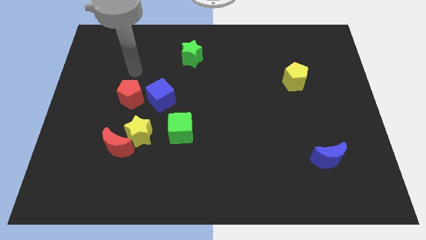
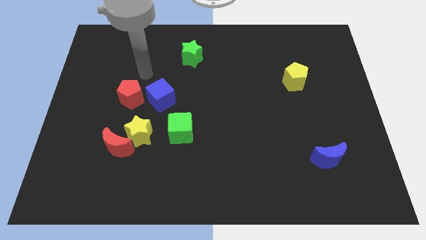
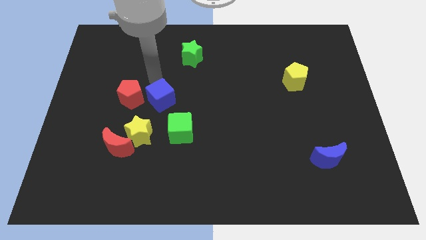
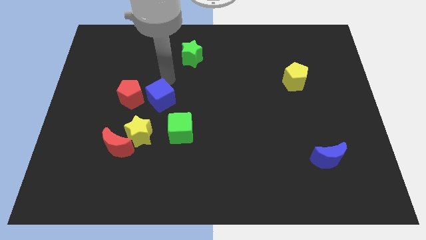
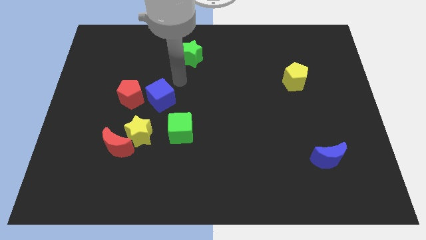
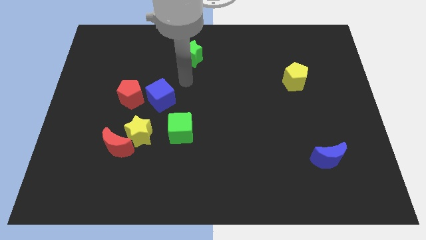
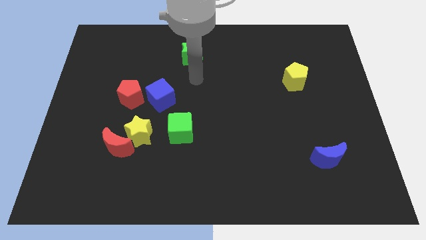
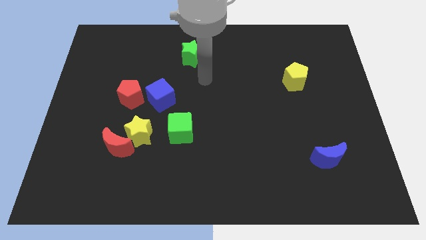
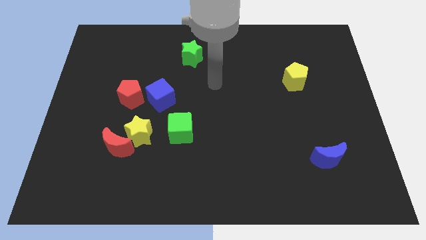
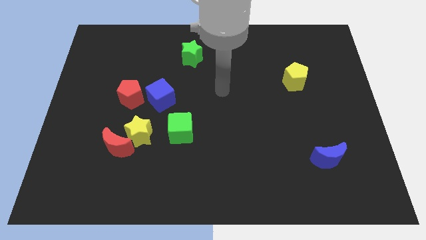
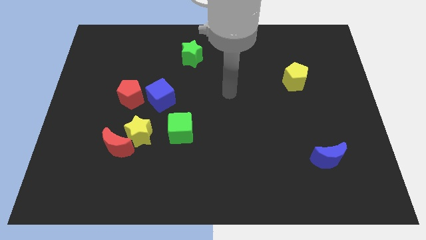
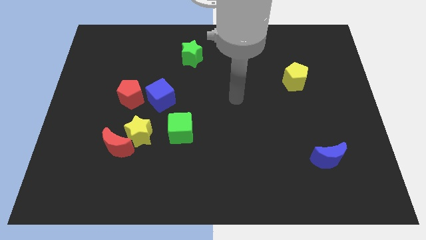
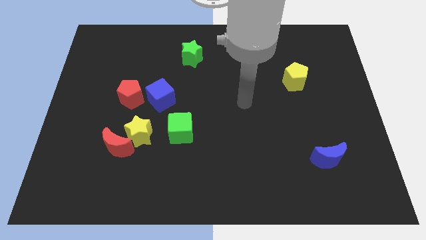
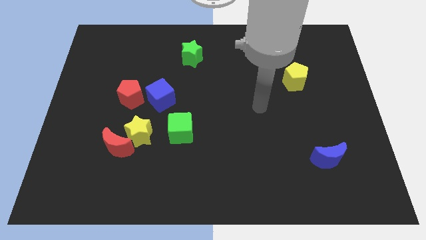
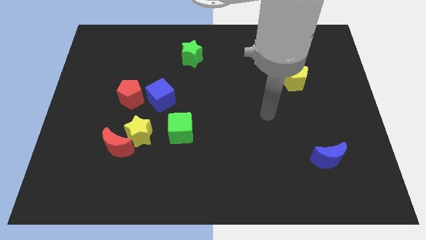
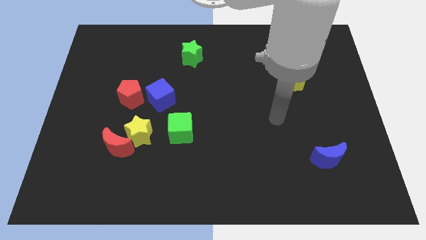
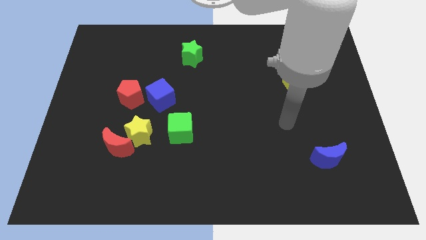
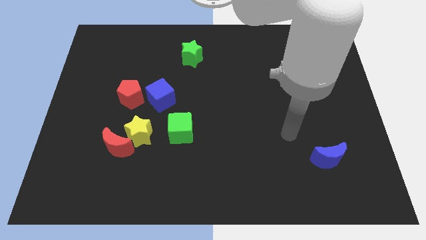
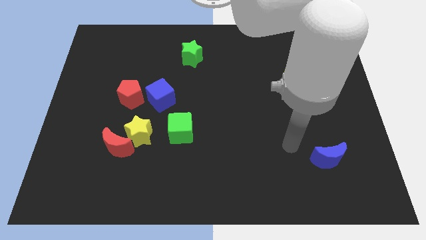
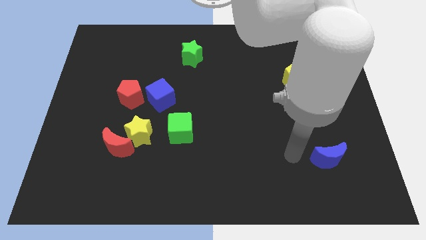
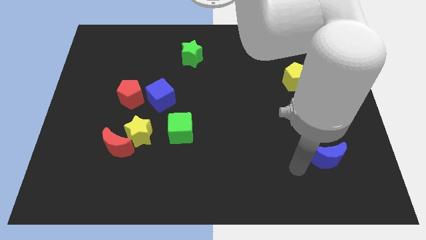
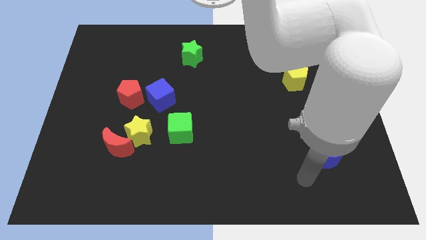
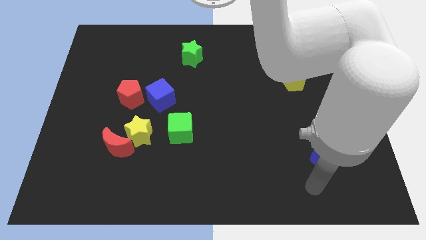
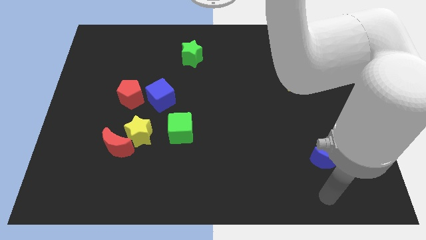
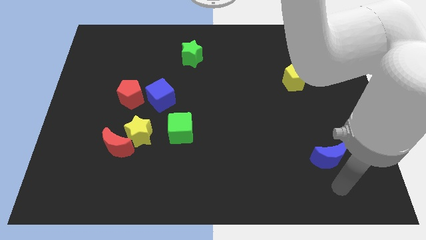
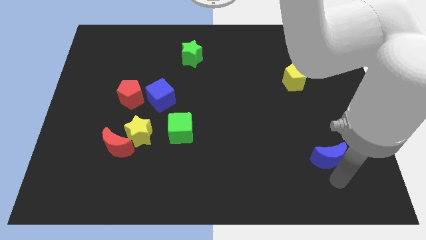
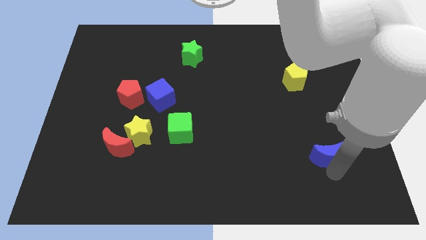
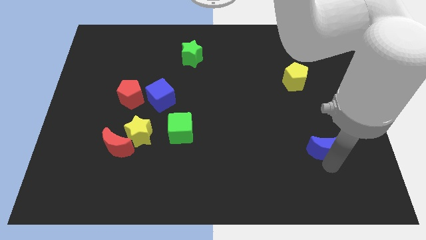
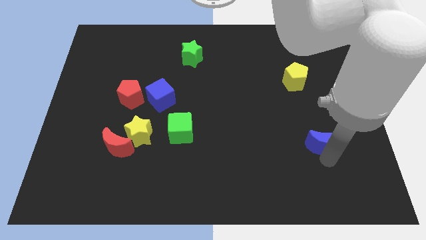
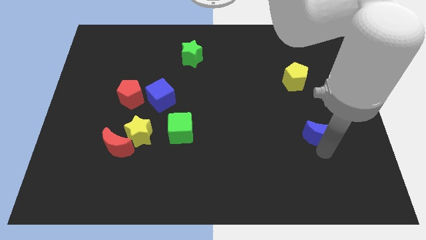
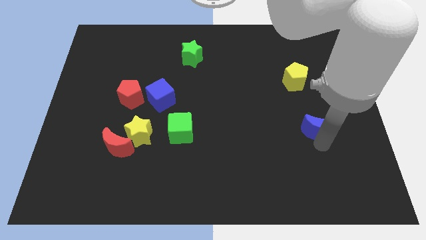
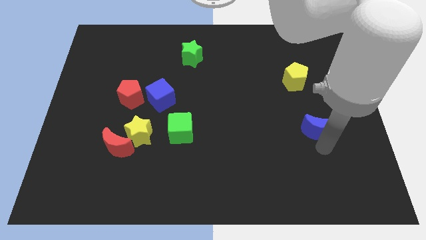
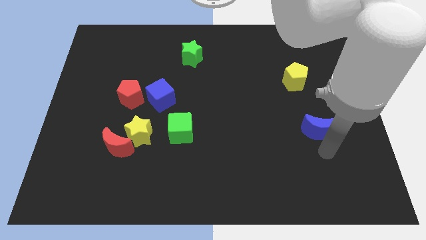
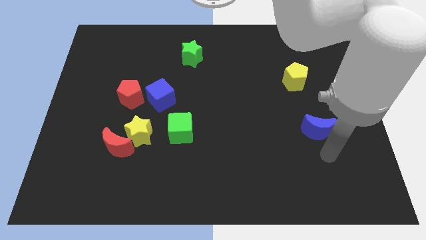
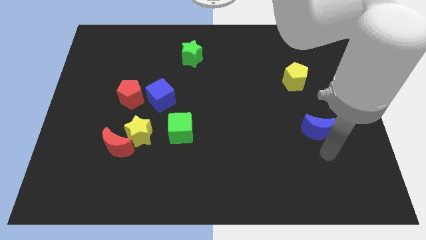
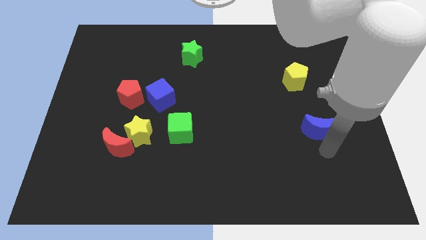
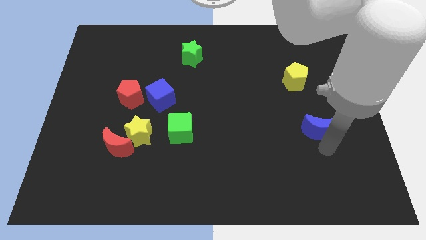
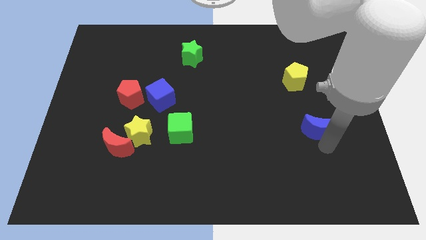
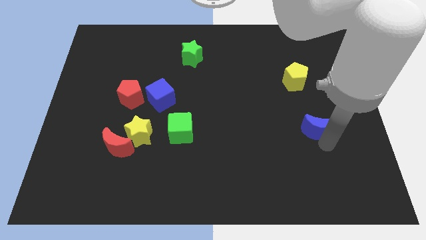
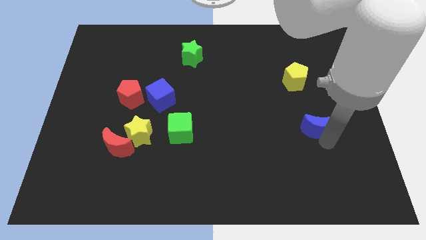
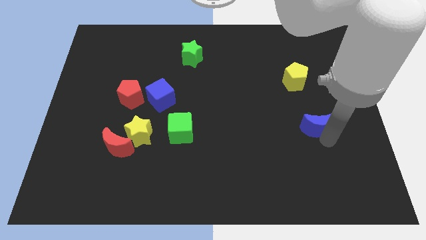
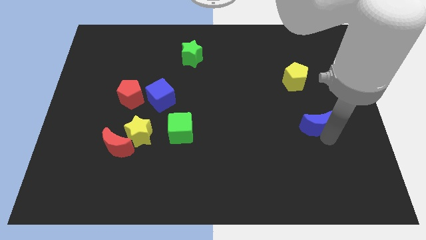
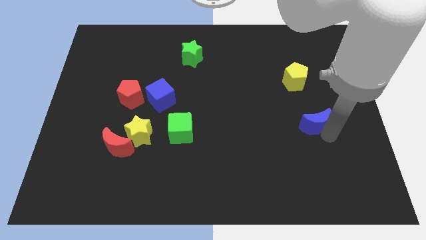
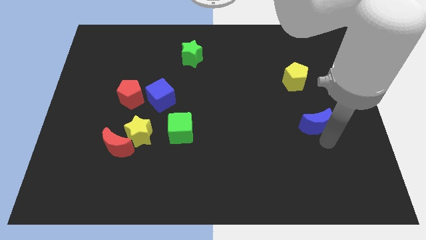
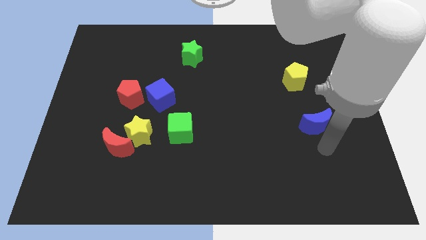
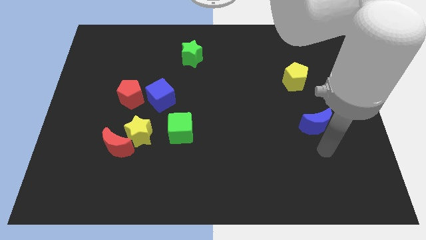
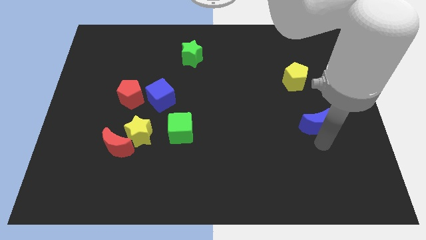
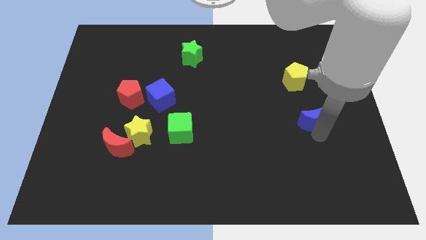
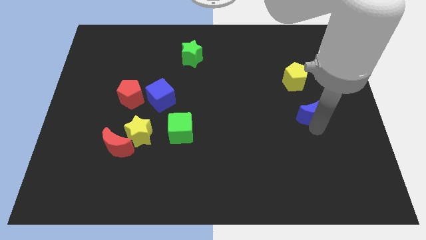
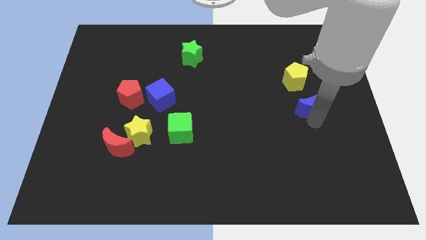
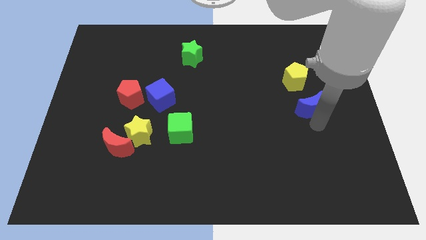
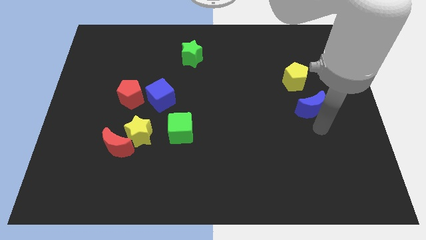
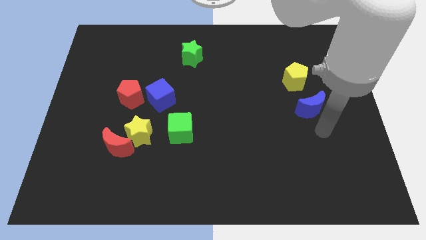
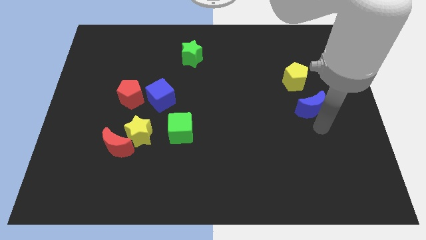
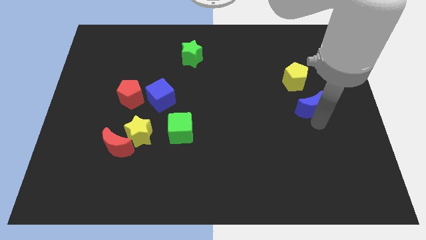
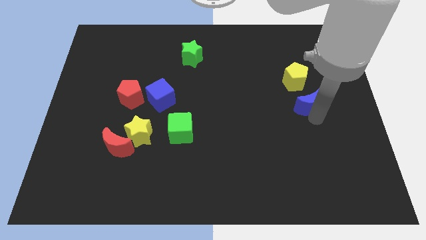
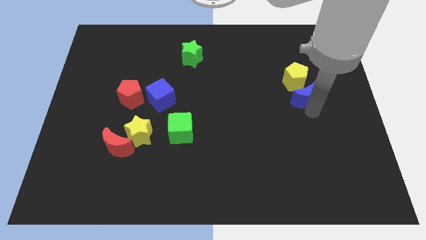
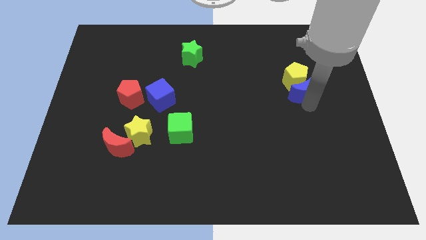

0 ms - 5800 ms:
push the blue moon close to the yellow pentagon

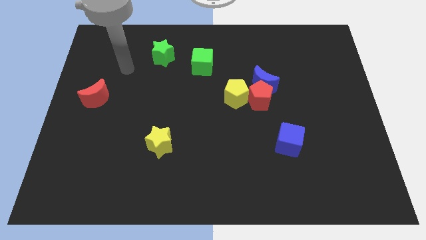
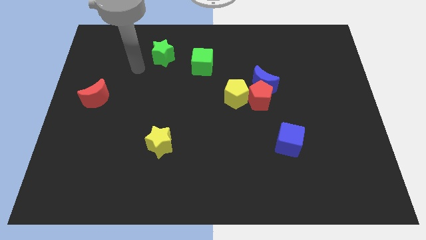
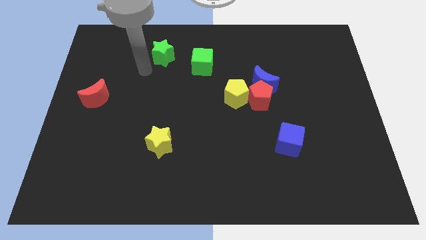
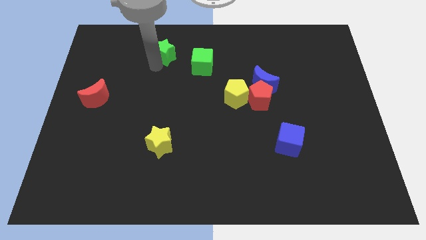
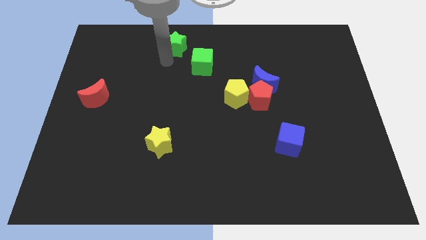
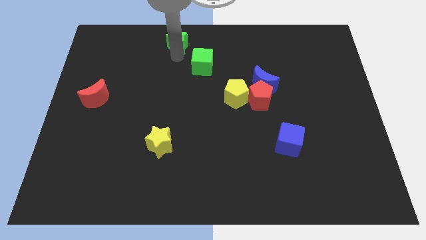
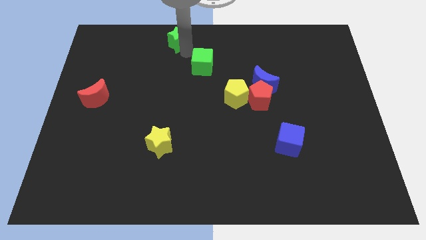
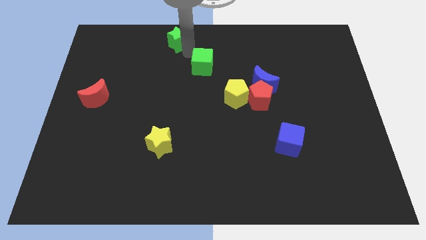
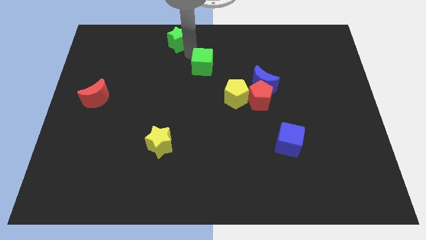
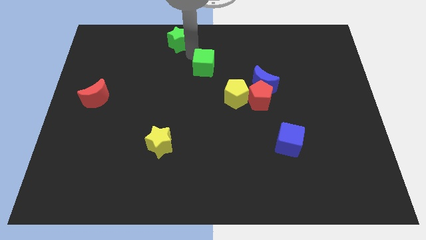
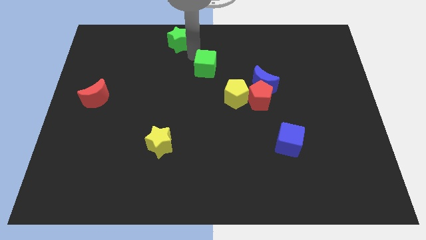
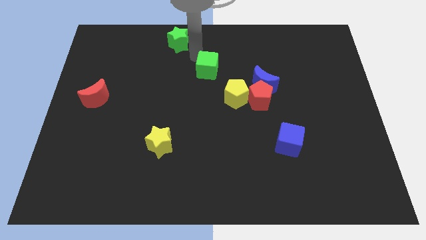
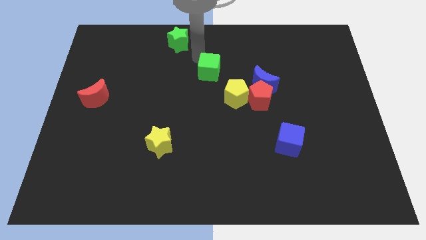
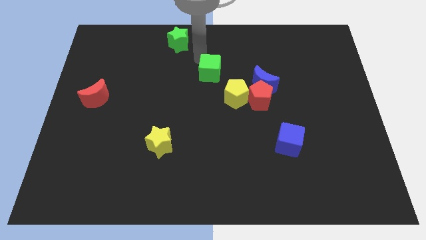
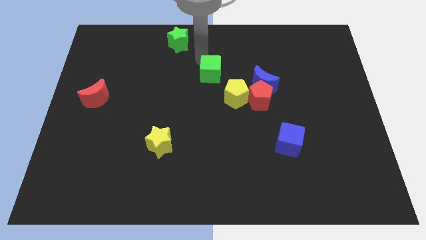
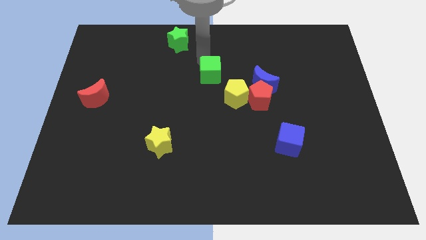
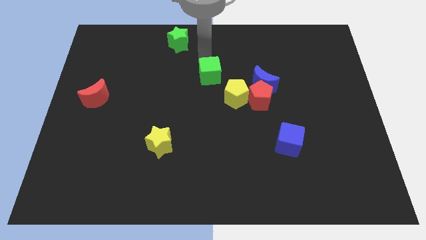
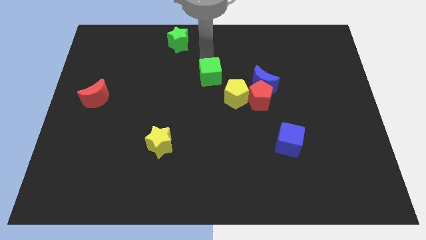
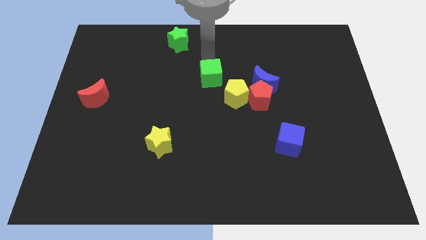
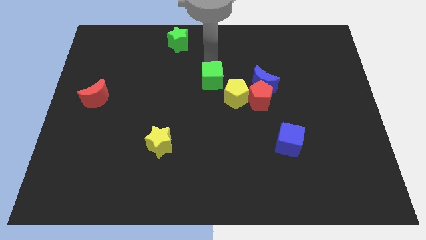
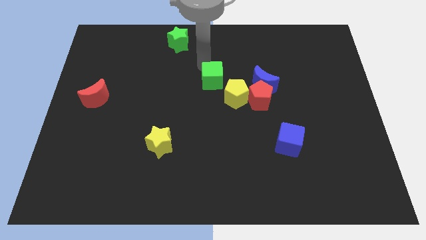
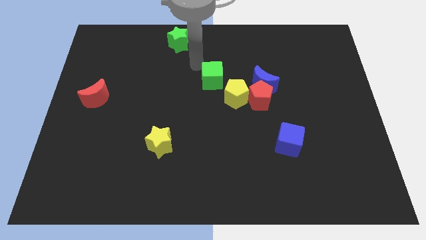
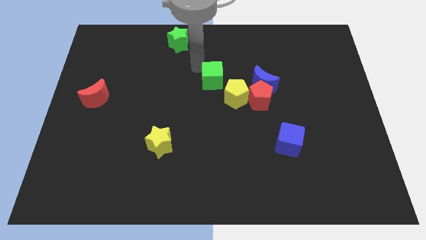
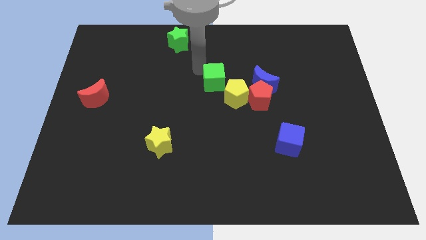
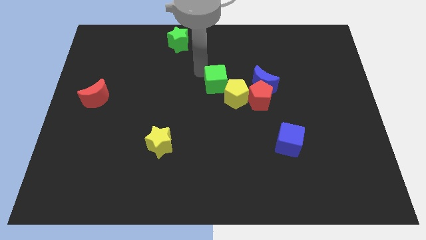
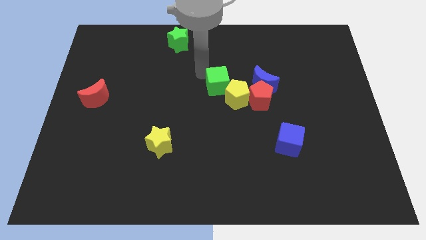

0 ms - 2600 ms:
move the green cube close to the yellow pentagon
